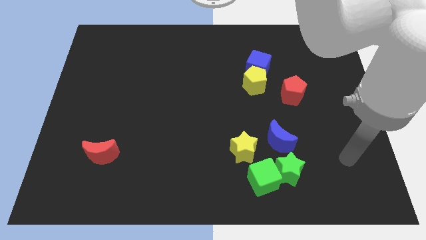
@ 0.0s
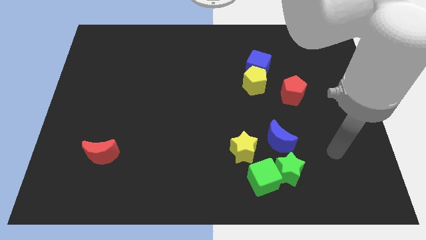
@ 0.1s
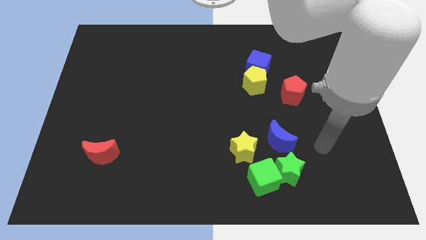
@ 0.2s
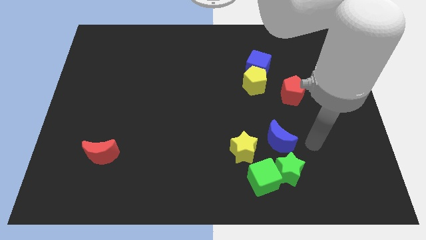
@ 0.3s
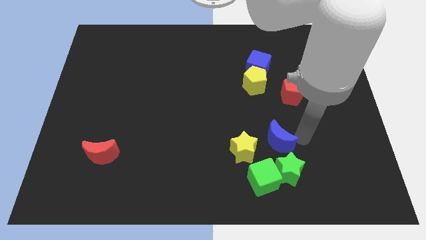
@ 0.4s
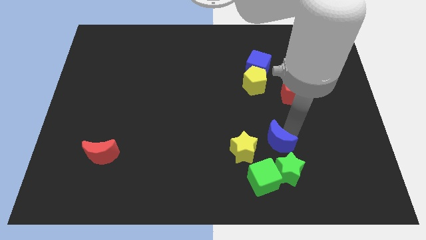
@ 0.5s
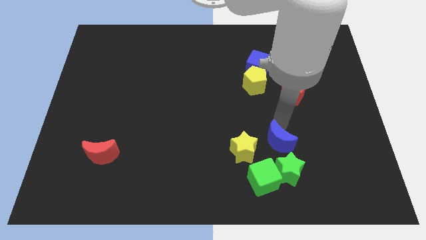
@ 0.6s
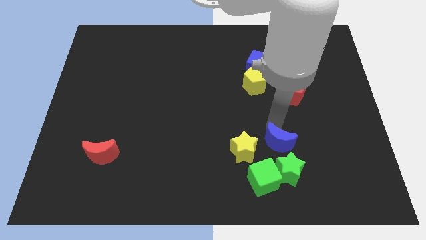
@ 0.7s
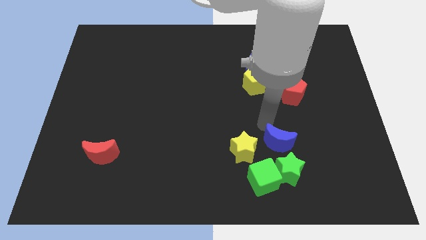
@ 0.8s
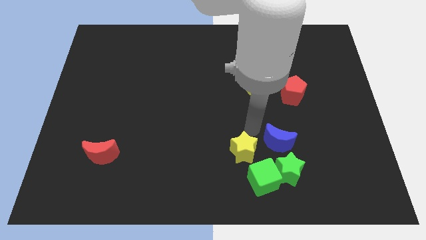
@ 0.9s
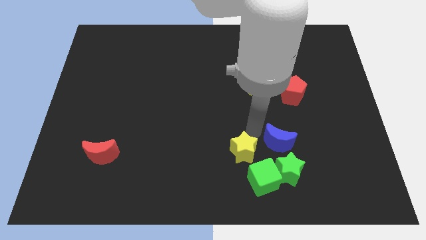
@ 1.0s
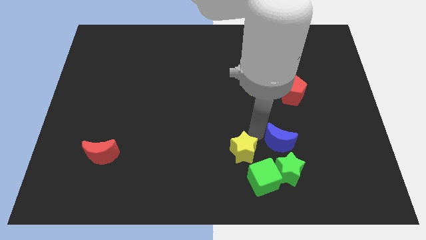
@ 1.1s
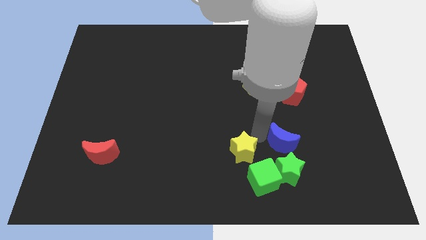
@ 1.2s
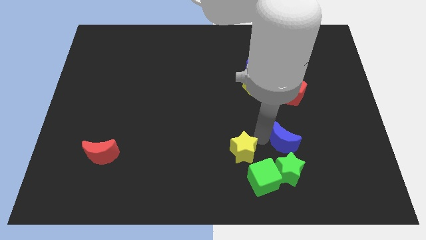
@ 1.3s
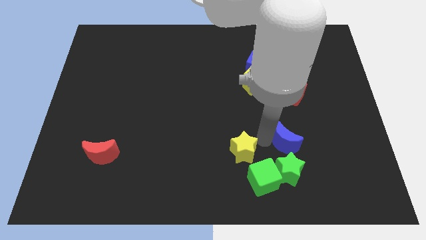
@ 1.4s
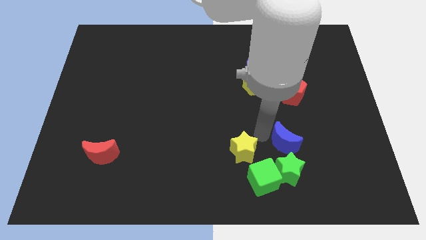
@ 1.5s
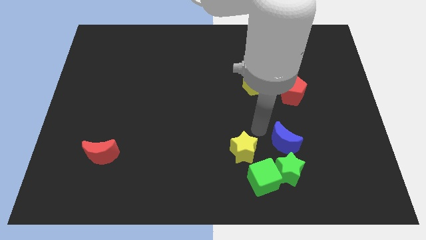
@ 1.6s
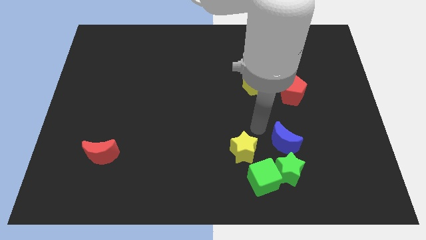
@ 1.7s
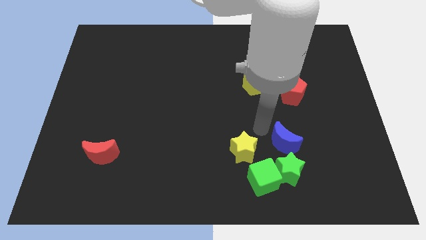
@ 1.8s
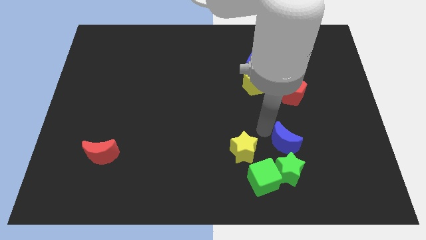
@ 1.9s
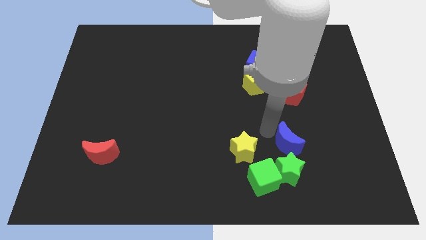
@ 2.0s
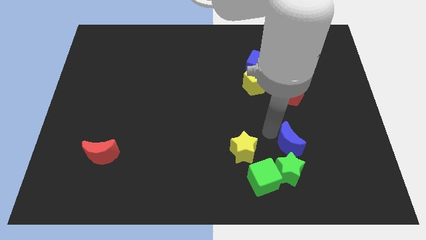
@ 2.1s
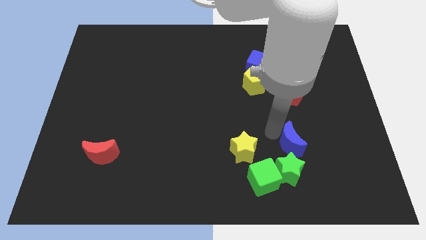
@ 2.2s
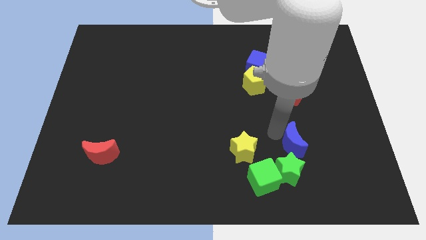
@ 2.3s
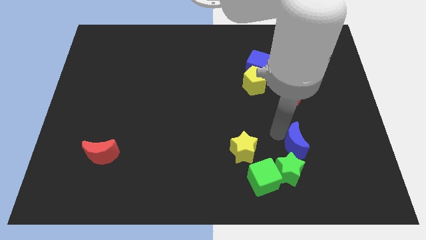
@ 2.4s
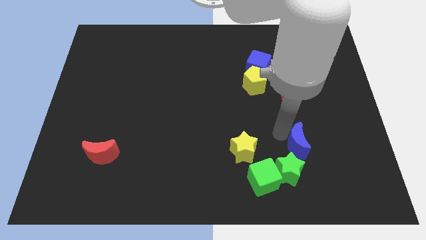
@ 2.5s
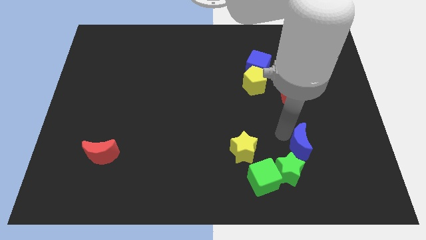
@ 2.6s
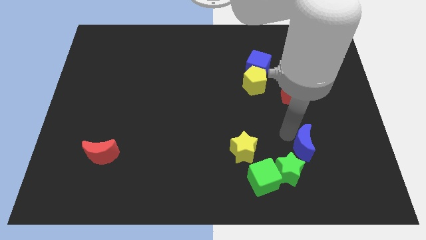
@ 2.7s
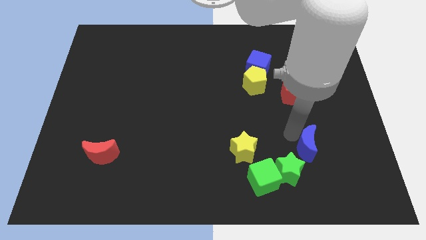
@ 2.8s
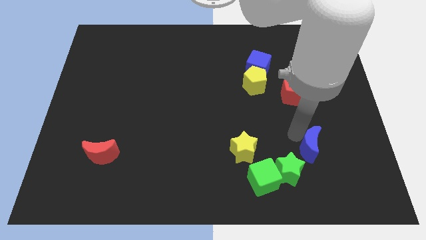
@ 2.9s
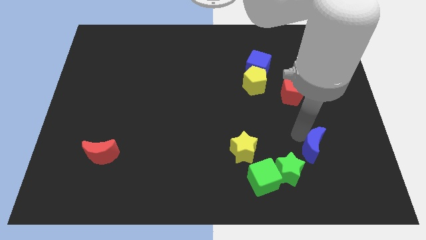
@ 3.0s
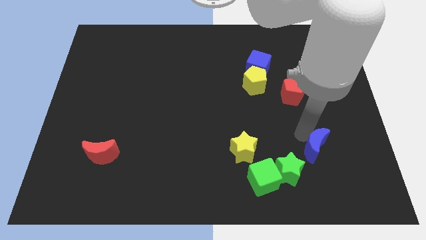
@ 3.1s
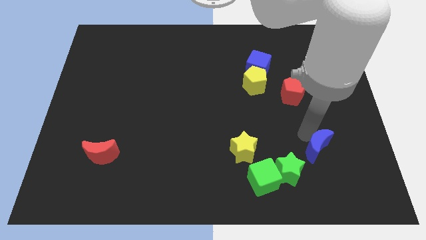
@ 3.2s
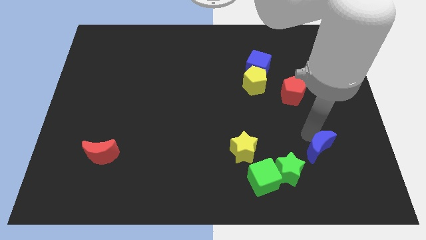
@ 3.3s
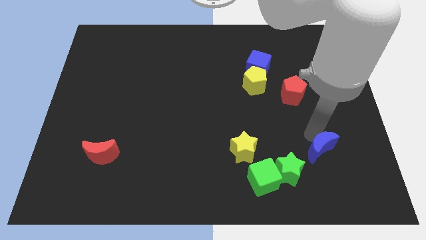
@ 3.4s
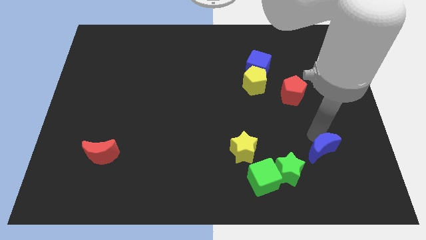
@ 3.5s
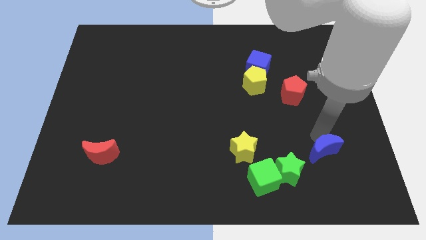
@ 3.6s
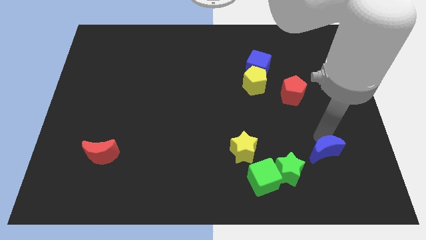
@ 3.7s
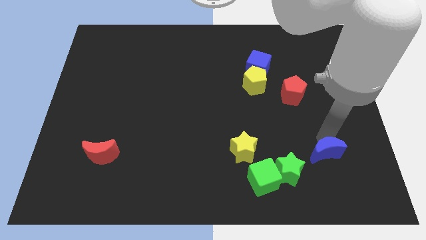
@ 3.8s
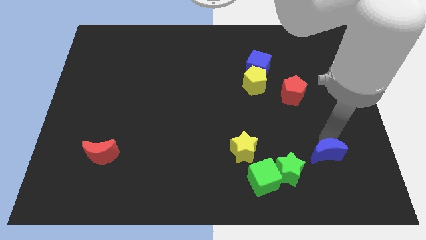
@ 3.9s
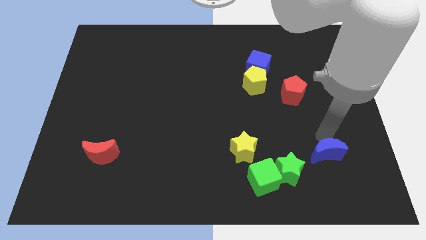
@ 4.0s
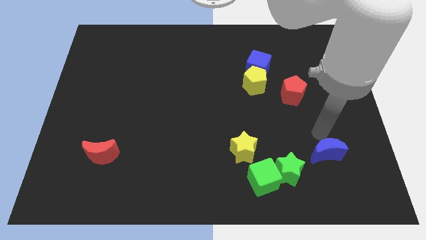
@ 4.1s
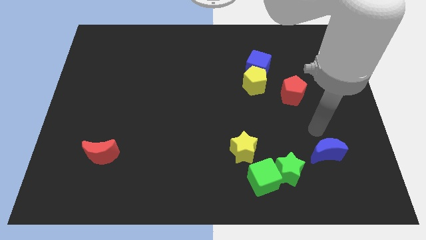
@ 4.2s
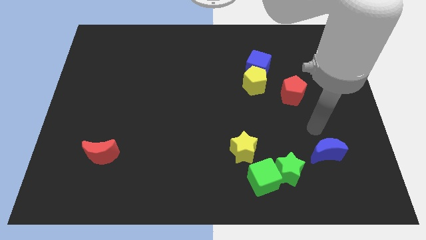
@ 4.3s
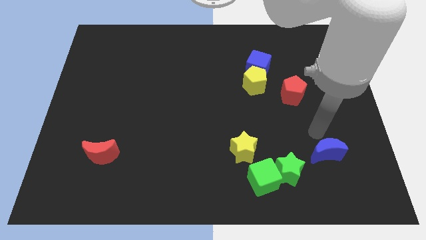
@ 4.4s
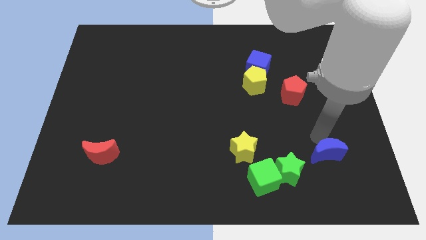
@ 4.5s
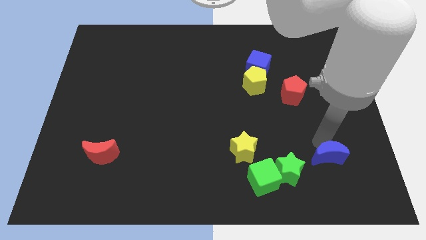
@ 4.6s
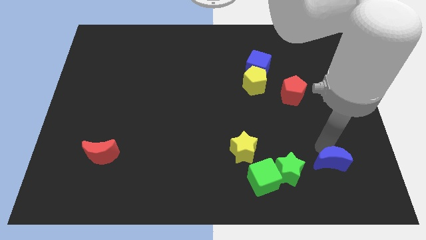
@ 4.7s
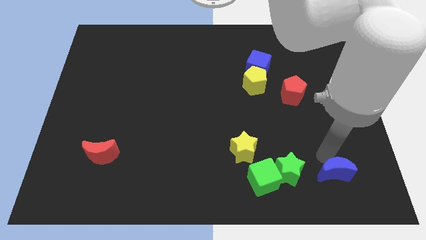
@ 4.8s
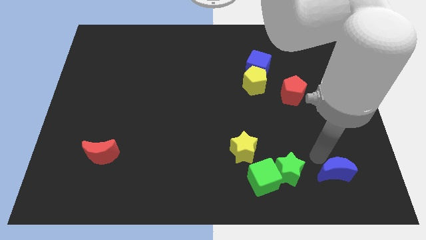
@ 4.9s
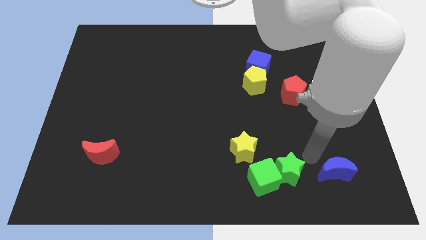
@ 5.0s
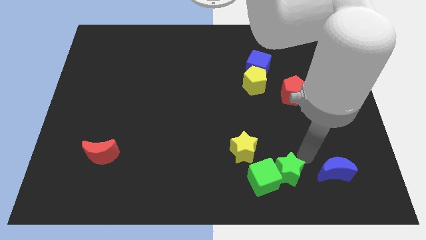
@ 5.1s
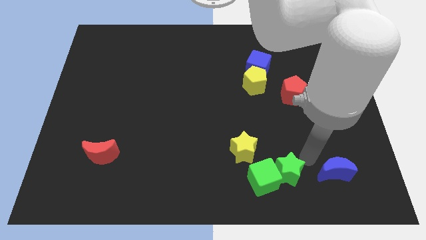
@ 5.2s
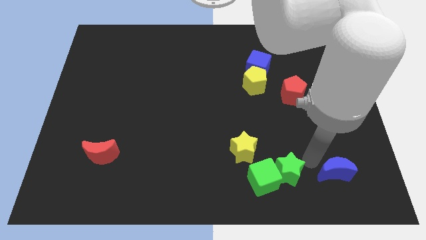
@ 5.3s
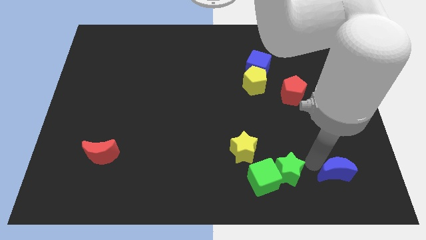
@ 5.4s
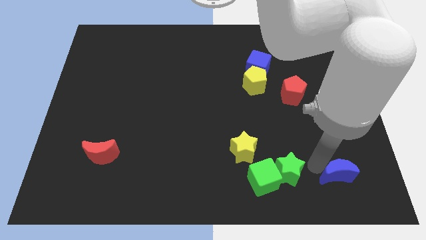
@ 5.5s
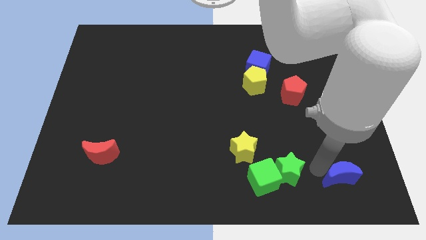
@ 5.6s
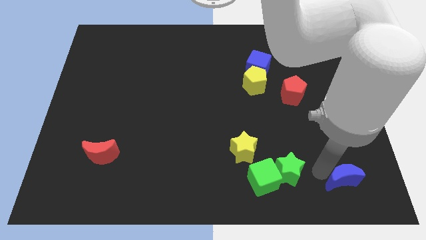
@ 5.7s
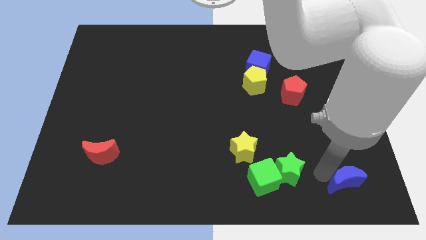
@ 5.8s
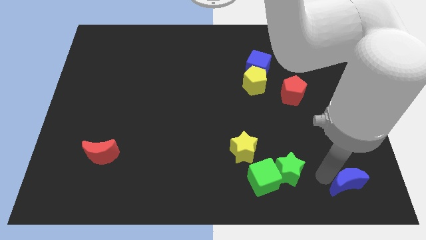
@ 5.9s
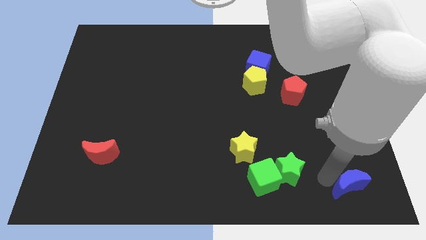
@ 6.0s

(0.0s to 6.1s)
push the blue moon to the bottom right of the board
